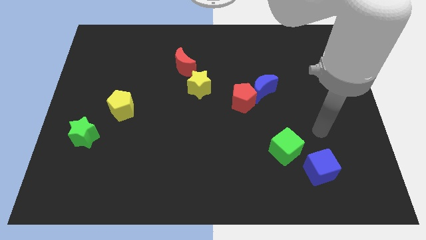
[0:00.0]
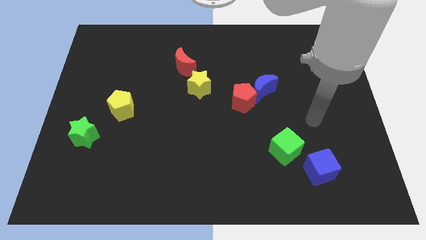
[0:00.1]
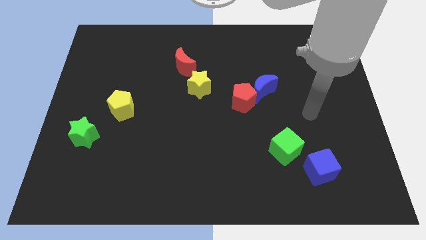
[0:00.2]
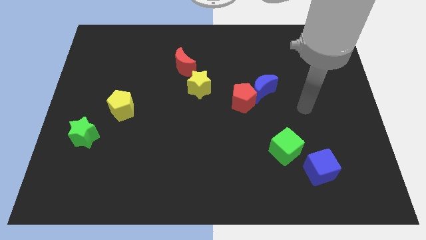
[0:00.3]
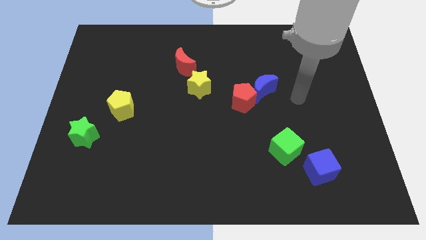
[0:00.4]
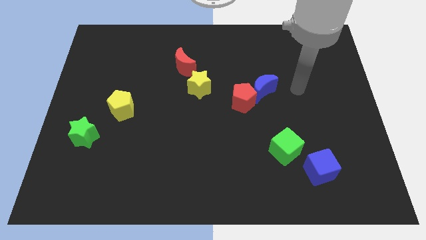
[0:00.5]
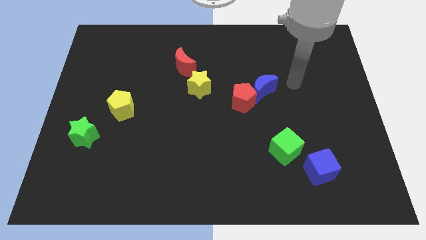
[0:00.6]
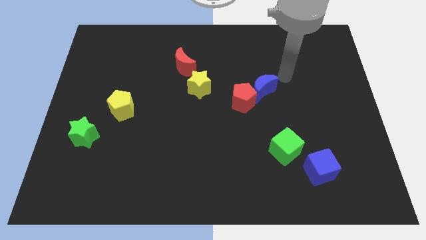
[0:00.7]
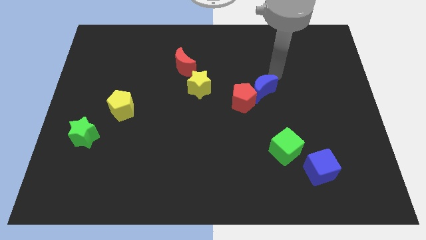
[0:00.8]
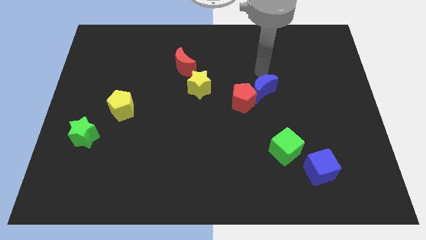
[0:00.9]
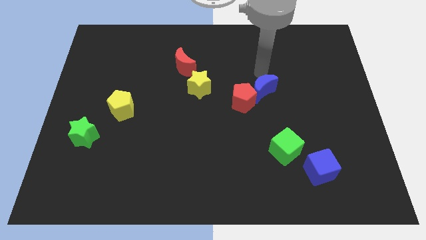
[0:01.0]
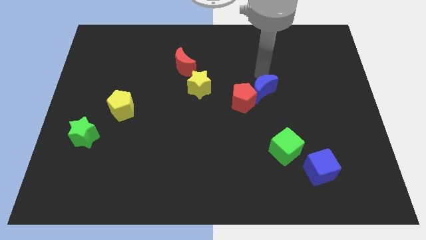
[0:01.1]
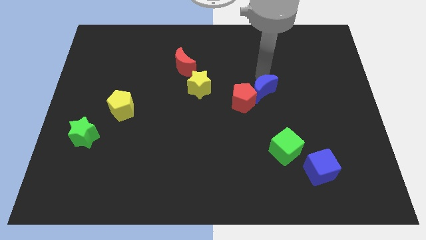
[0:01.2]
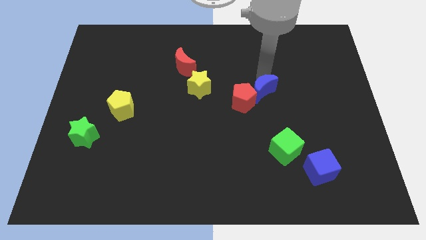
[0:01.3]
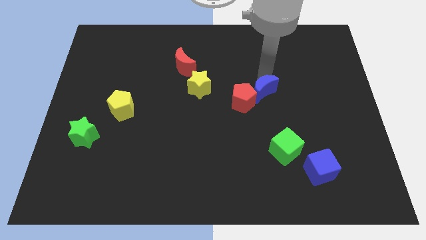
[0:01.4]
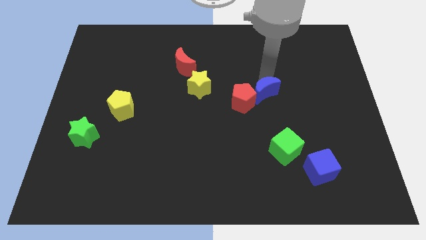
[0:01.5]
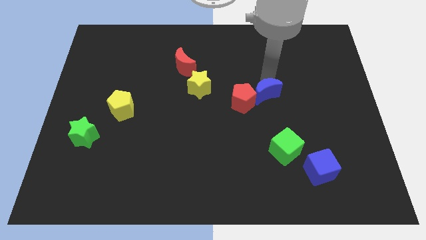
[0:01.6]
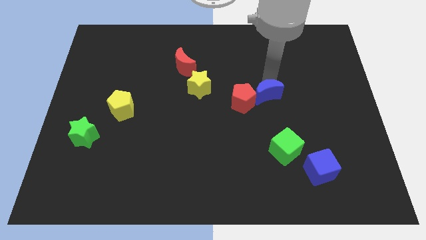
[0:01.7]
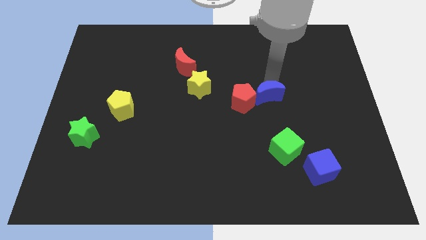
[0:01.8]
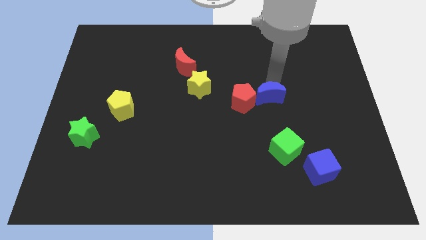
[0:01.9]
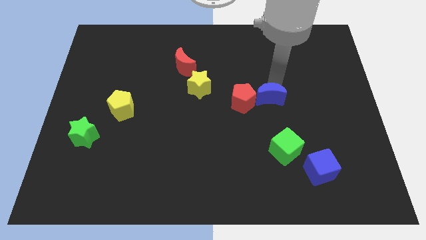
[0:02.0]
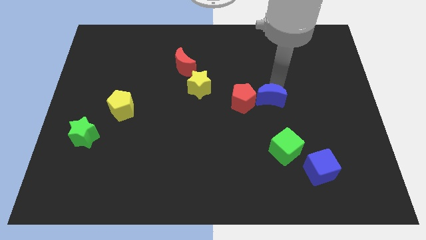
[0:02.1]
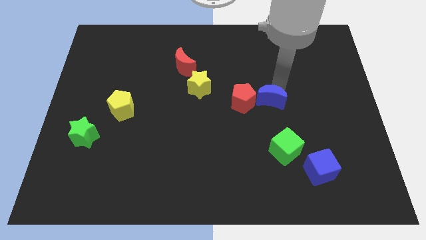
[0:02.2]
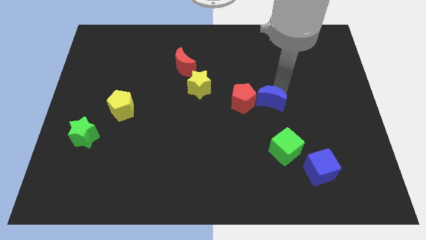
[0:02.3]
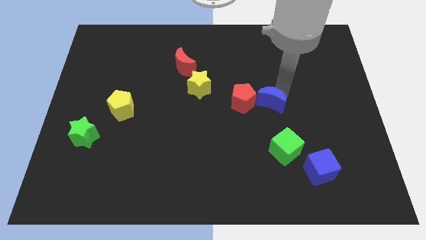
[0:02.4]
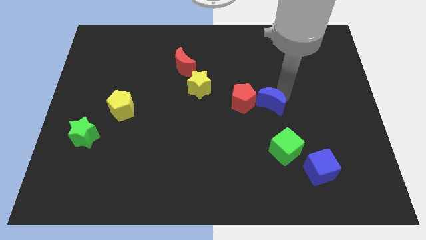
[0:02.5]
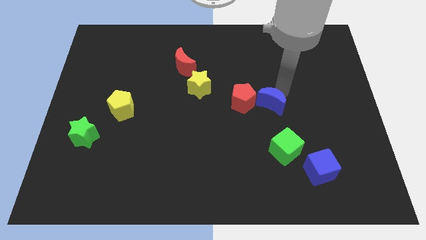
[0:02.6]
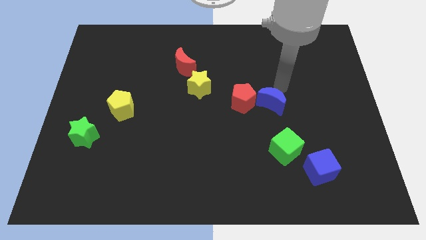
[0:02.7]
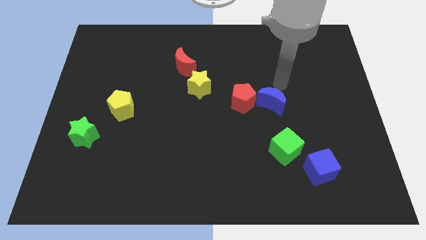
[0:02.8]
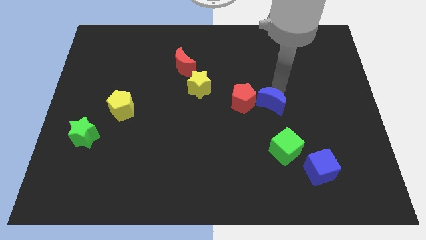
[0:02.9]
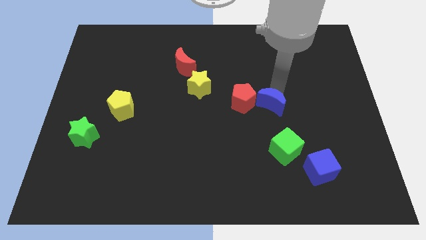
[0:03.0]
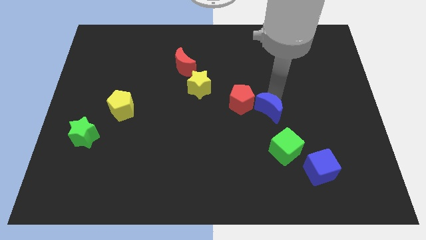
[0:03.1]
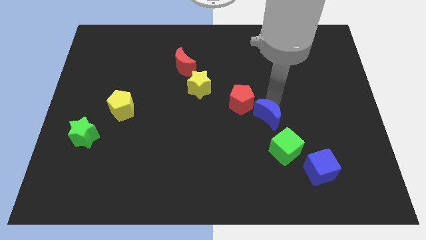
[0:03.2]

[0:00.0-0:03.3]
push the blue moon down somewhat

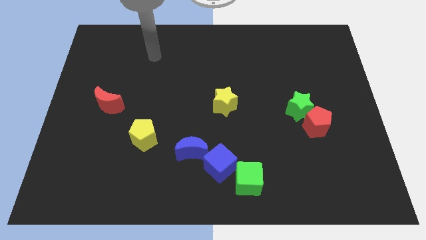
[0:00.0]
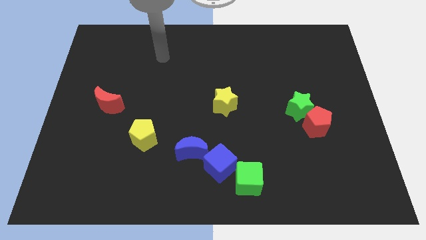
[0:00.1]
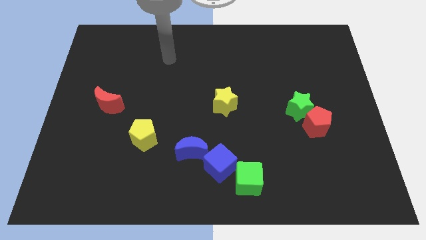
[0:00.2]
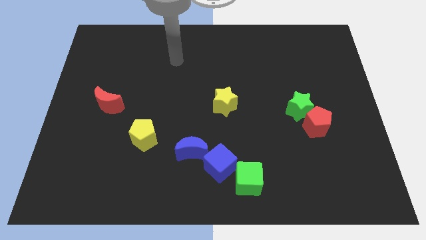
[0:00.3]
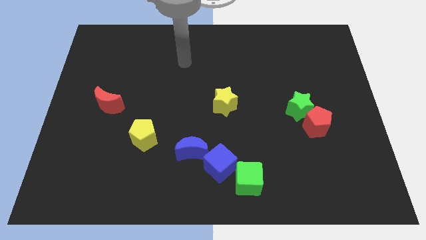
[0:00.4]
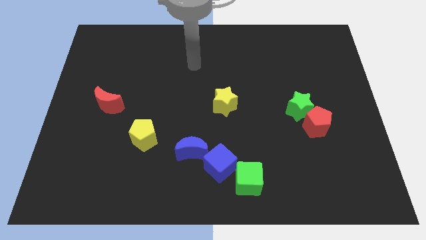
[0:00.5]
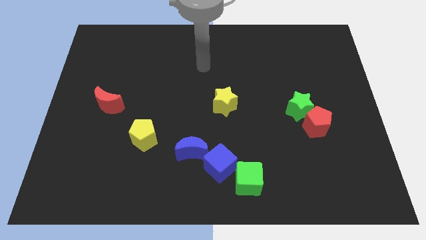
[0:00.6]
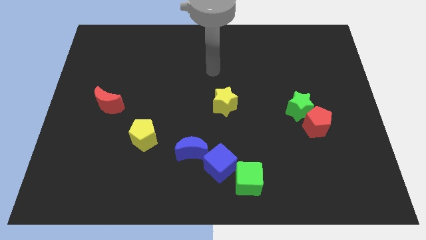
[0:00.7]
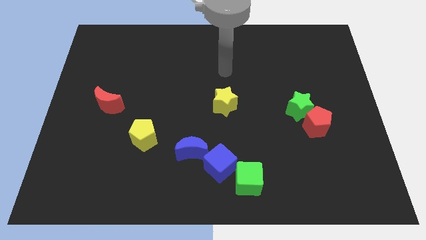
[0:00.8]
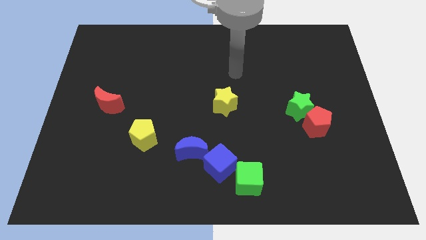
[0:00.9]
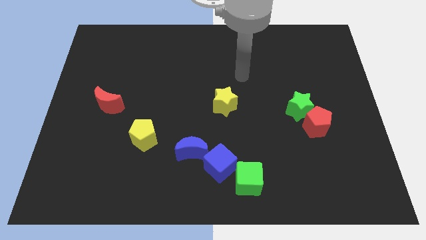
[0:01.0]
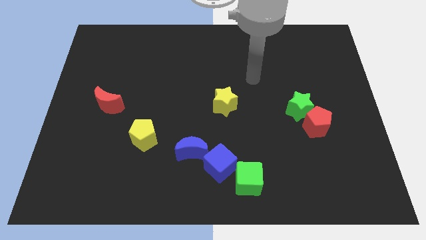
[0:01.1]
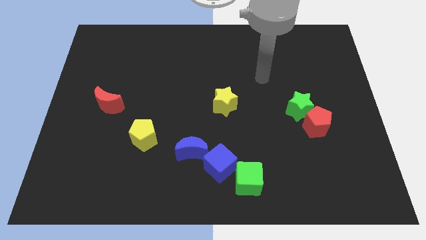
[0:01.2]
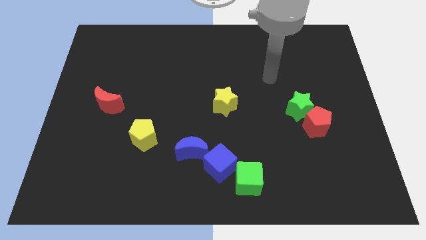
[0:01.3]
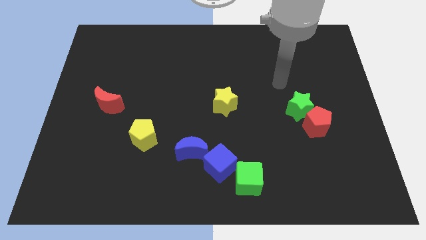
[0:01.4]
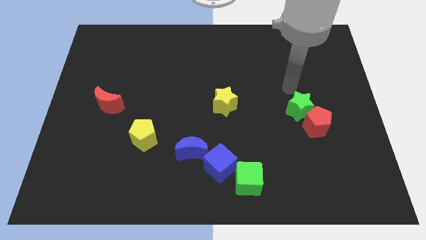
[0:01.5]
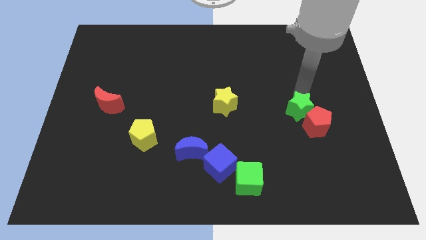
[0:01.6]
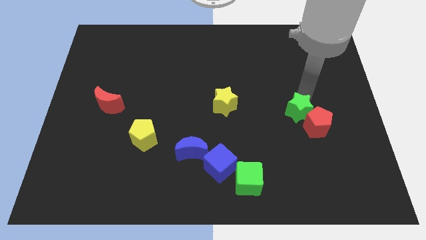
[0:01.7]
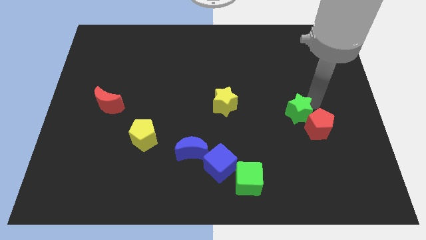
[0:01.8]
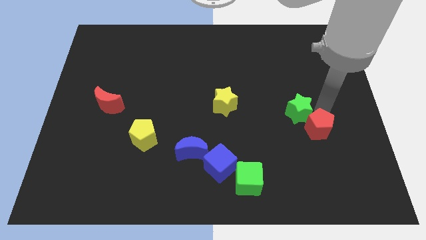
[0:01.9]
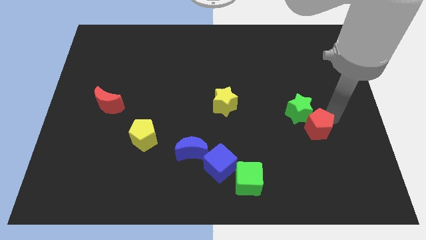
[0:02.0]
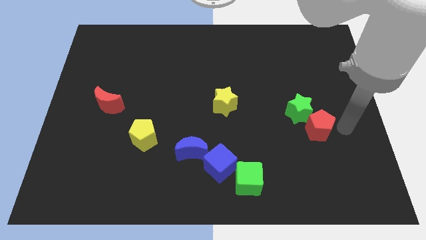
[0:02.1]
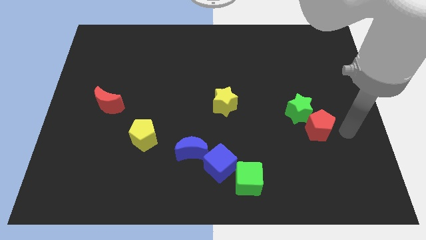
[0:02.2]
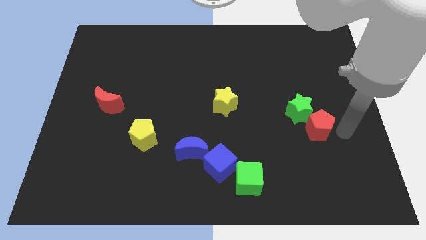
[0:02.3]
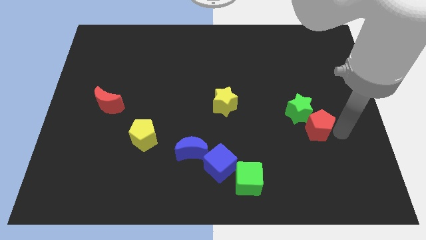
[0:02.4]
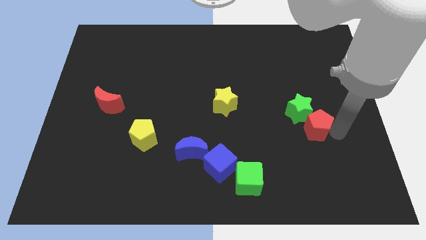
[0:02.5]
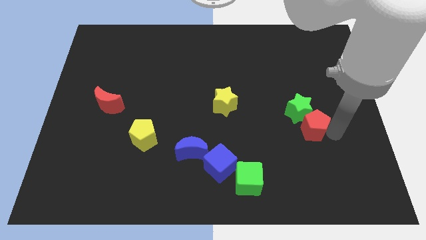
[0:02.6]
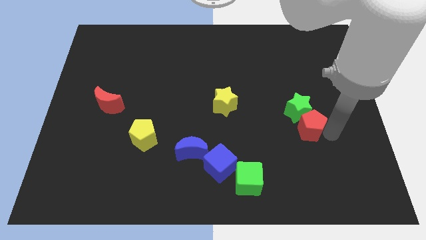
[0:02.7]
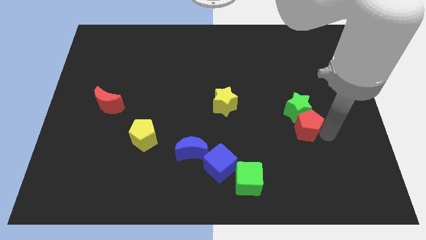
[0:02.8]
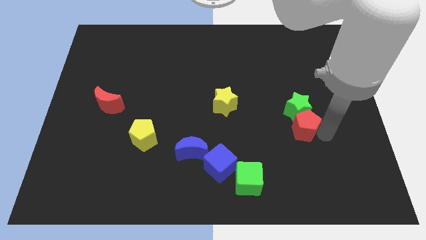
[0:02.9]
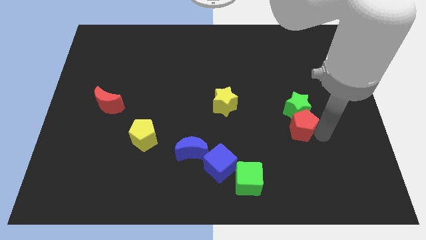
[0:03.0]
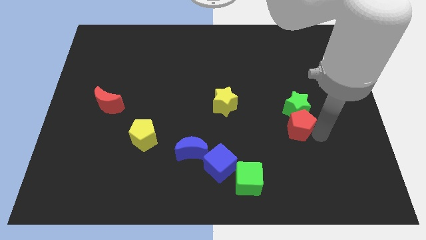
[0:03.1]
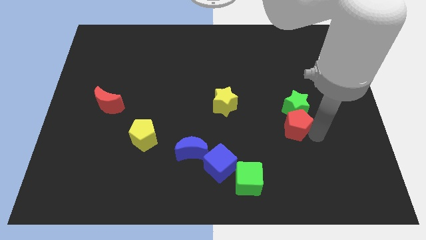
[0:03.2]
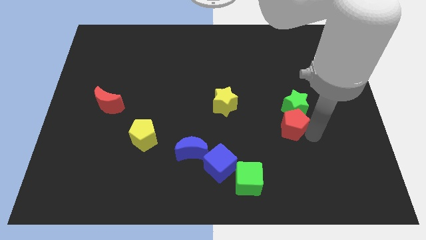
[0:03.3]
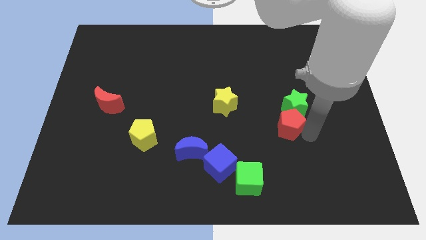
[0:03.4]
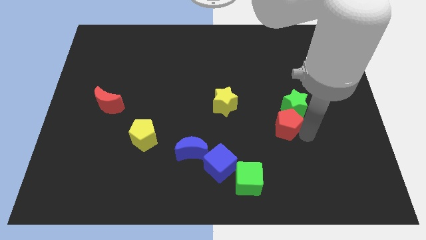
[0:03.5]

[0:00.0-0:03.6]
slide the red pentagon slightly left

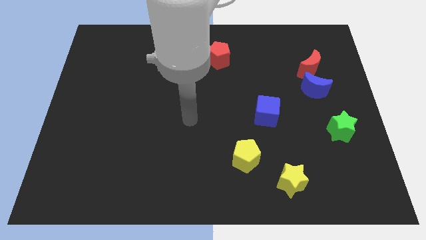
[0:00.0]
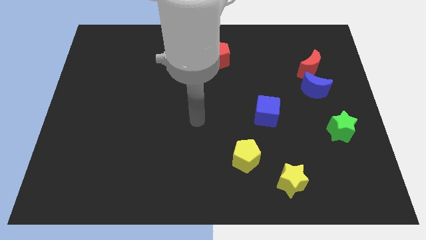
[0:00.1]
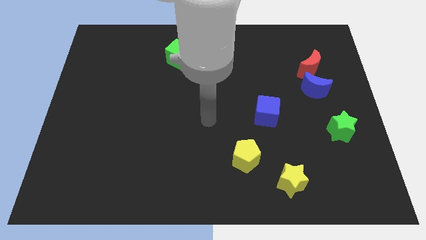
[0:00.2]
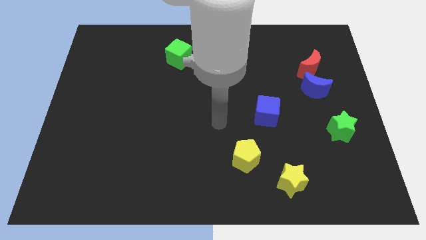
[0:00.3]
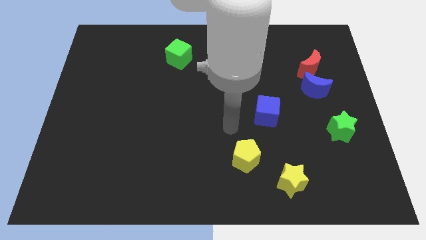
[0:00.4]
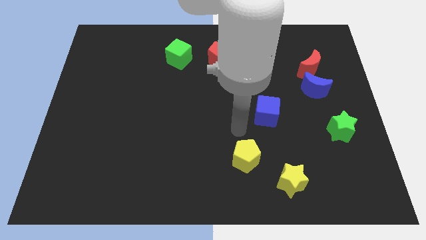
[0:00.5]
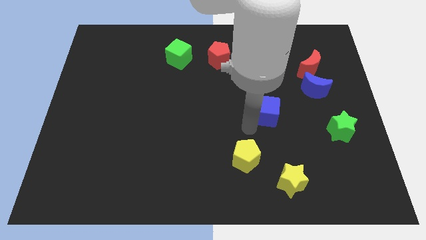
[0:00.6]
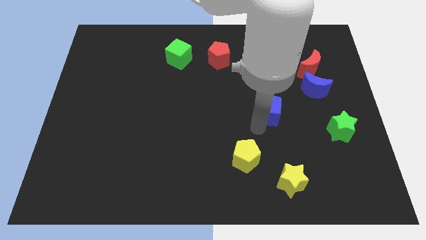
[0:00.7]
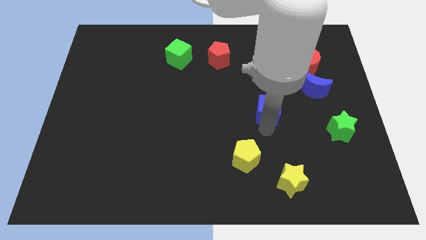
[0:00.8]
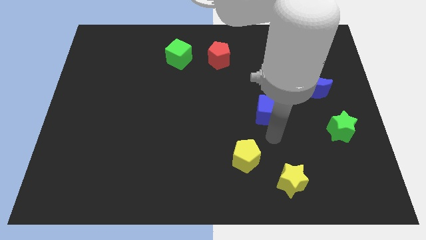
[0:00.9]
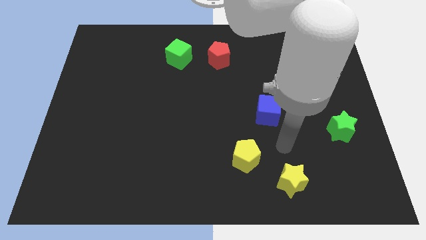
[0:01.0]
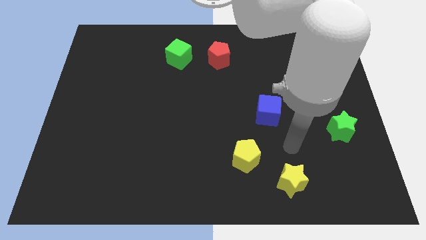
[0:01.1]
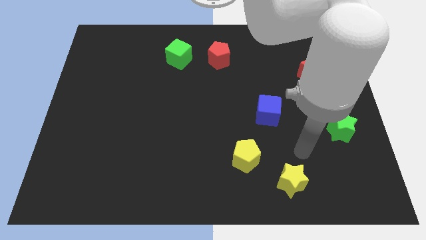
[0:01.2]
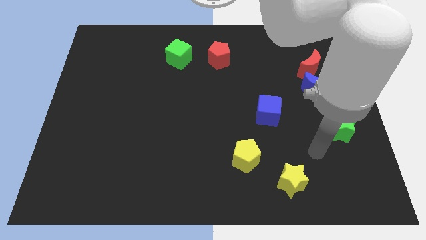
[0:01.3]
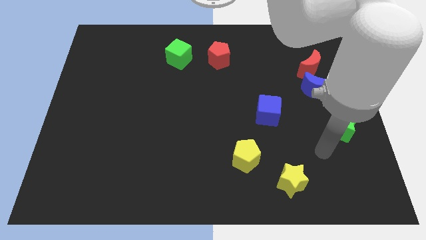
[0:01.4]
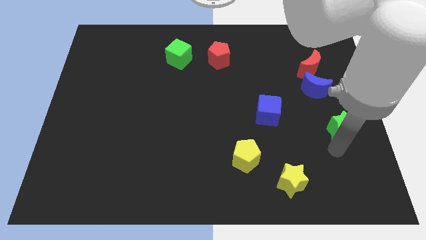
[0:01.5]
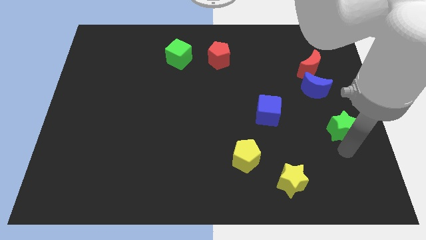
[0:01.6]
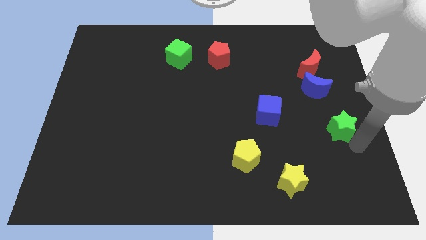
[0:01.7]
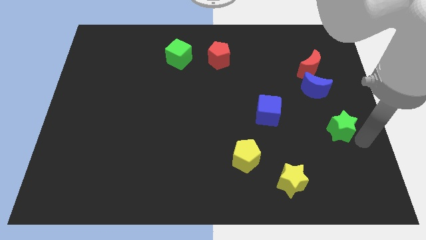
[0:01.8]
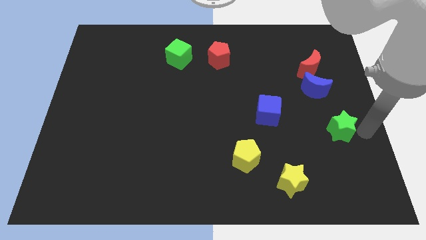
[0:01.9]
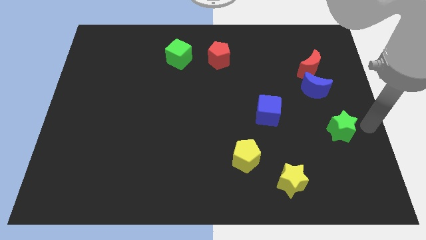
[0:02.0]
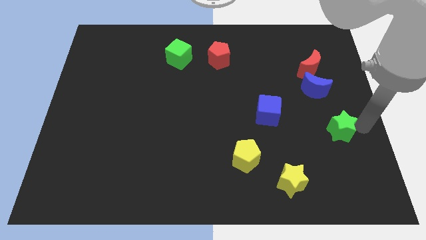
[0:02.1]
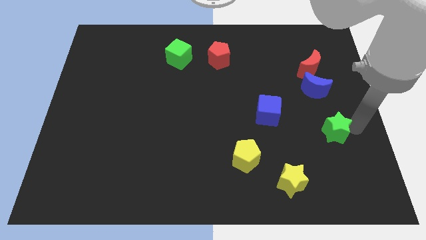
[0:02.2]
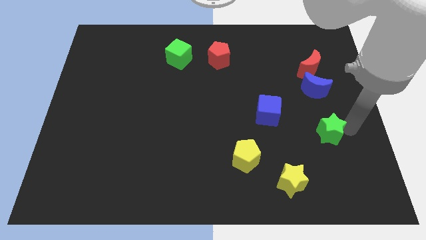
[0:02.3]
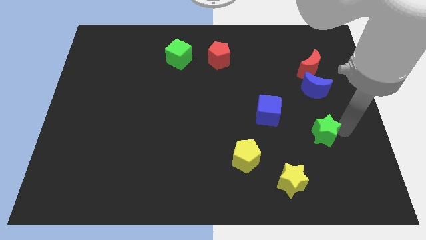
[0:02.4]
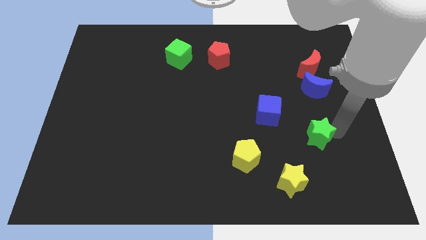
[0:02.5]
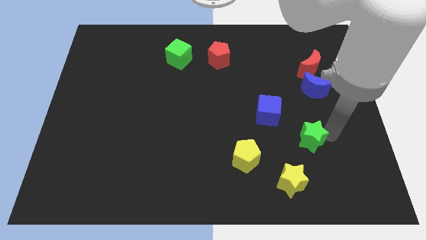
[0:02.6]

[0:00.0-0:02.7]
slightly slide the green star to the left
